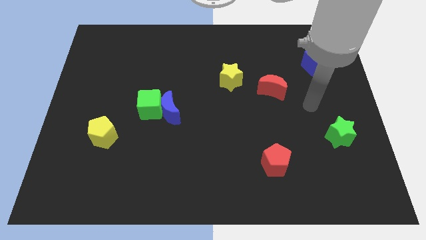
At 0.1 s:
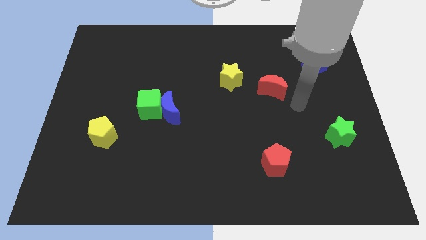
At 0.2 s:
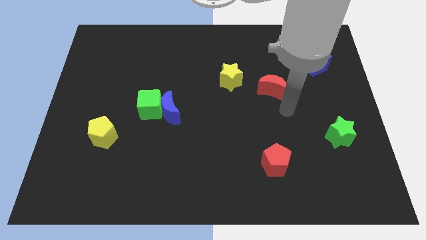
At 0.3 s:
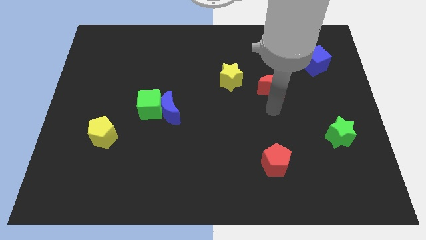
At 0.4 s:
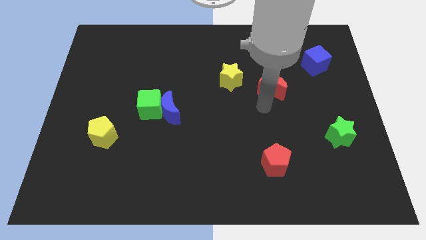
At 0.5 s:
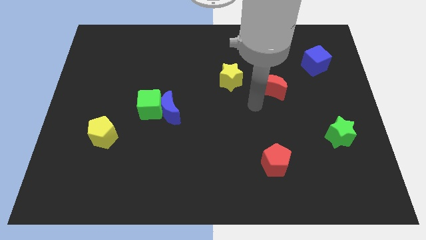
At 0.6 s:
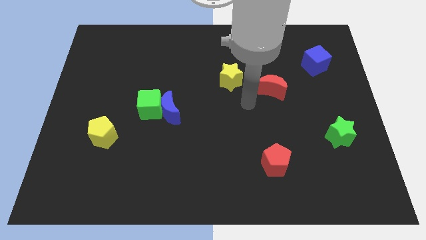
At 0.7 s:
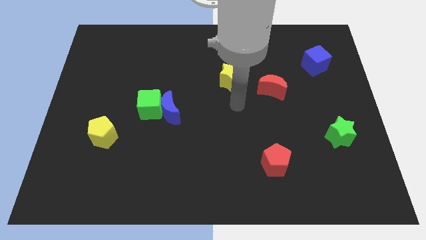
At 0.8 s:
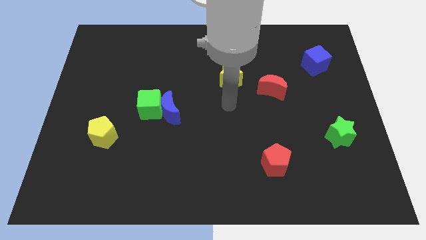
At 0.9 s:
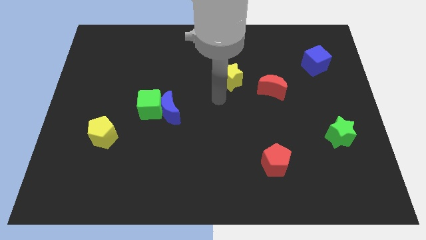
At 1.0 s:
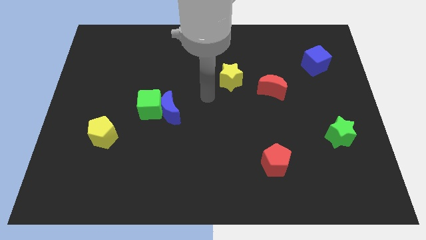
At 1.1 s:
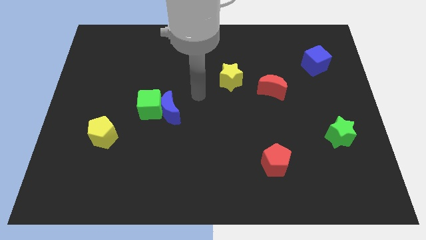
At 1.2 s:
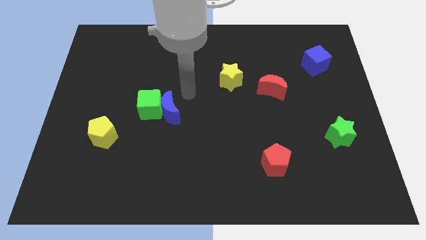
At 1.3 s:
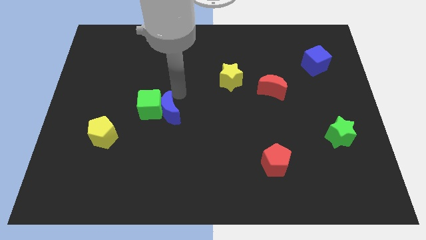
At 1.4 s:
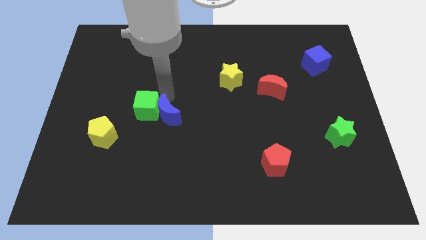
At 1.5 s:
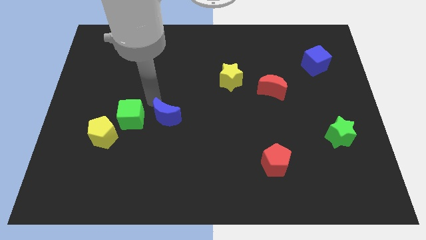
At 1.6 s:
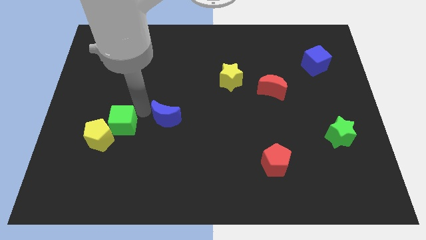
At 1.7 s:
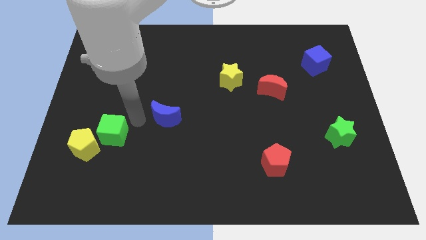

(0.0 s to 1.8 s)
pull the blue moon apart from the green cube

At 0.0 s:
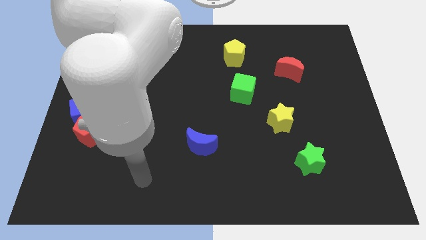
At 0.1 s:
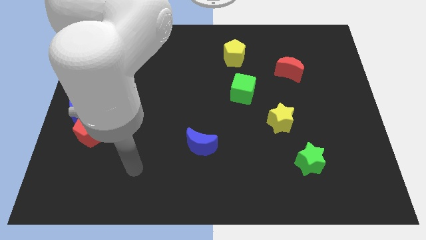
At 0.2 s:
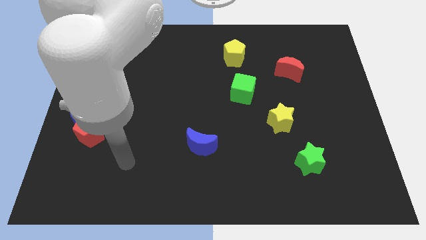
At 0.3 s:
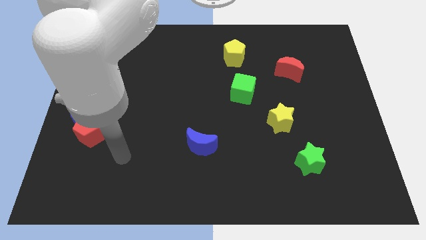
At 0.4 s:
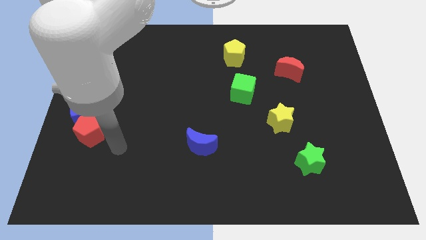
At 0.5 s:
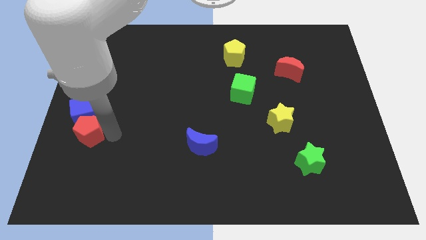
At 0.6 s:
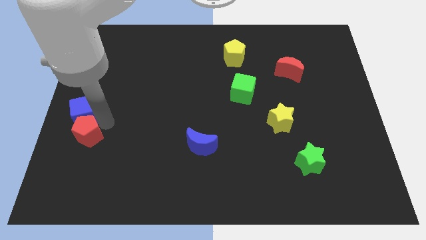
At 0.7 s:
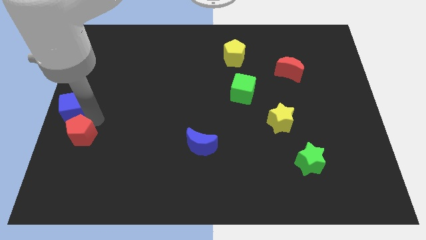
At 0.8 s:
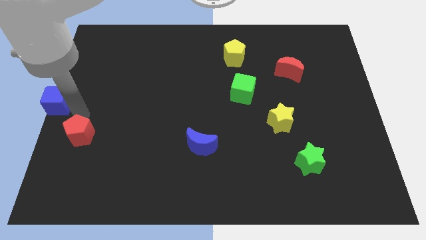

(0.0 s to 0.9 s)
separate the red pentagon from the blue cube

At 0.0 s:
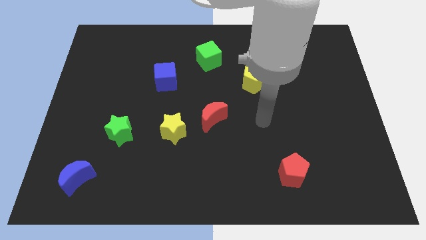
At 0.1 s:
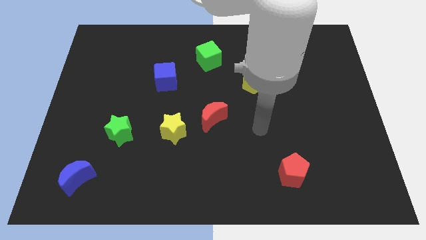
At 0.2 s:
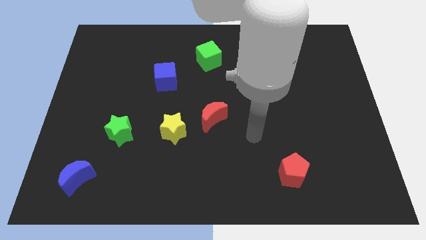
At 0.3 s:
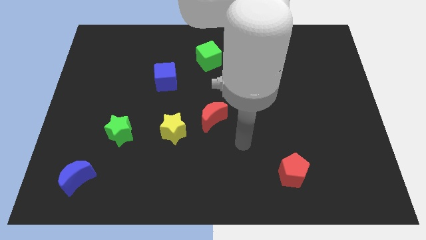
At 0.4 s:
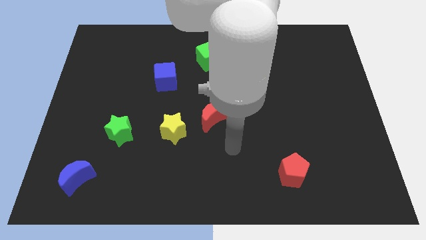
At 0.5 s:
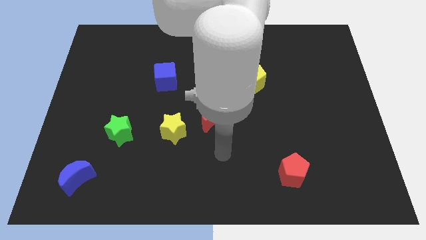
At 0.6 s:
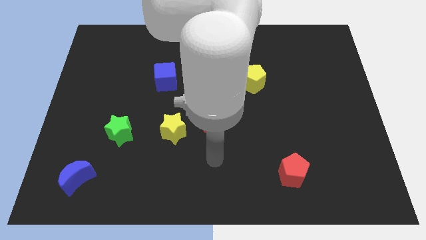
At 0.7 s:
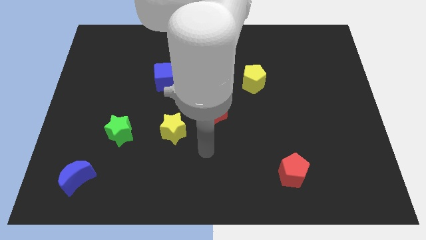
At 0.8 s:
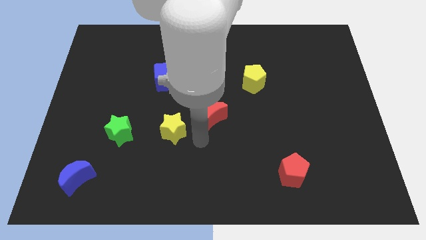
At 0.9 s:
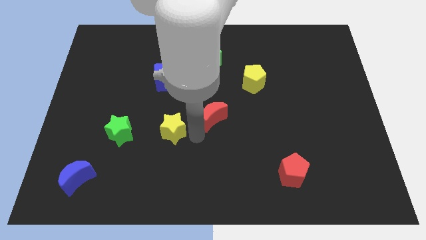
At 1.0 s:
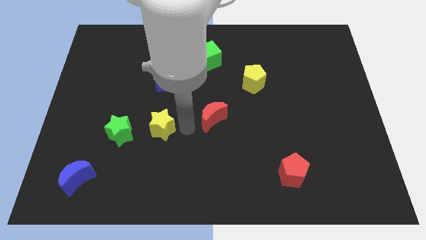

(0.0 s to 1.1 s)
pull the red moon apart from the yellow star

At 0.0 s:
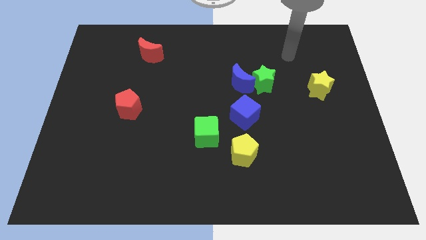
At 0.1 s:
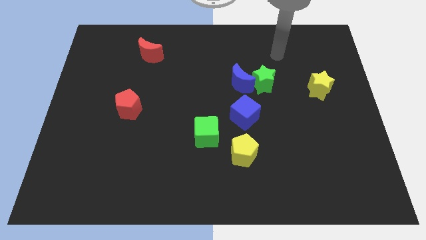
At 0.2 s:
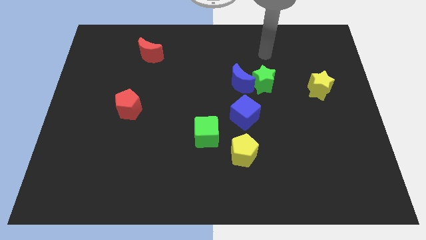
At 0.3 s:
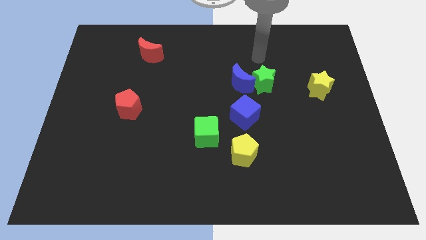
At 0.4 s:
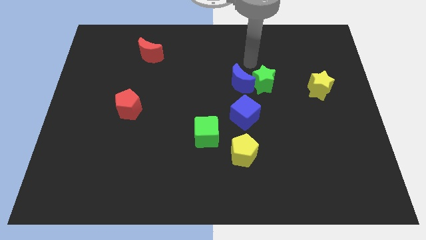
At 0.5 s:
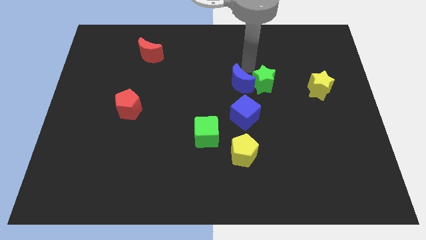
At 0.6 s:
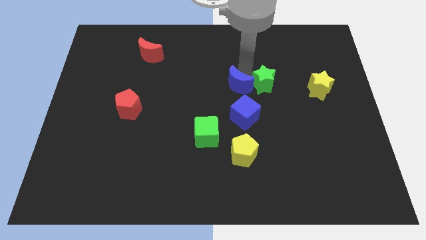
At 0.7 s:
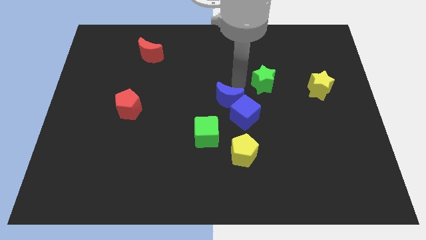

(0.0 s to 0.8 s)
separate the green star from the blue moon

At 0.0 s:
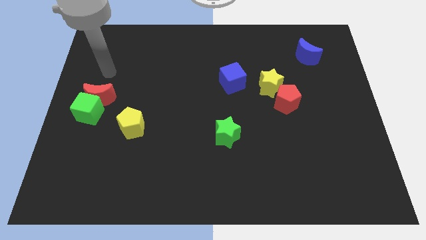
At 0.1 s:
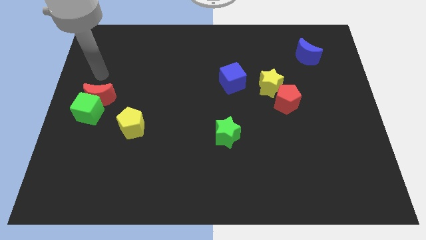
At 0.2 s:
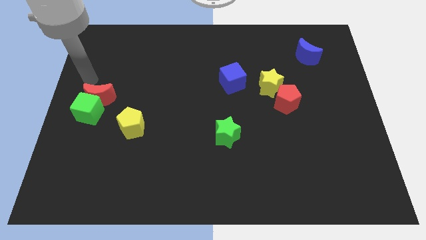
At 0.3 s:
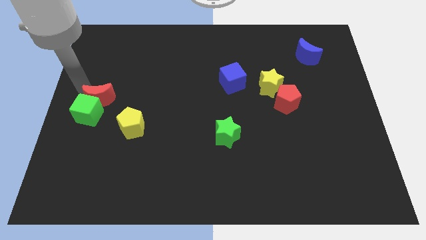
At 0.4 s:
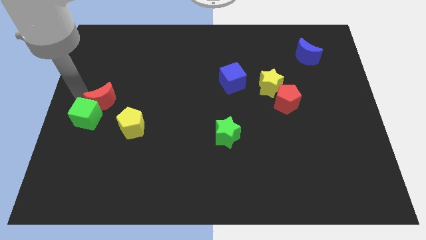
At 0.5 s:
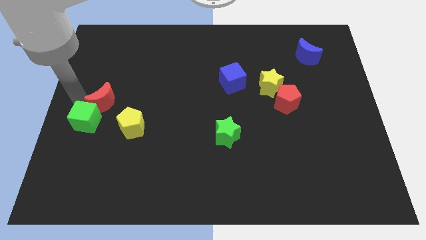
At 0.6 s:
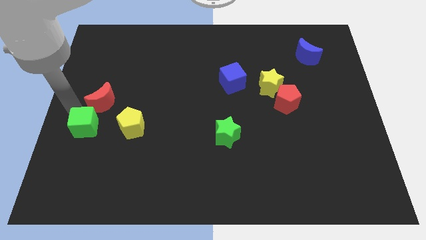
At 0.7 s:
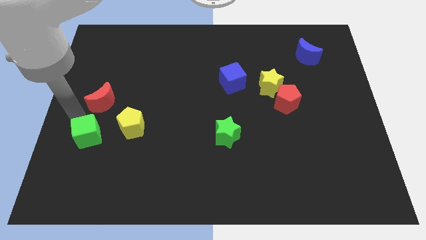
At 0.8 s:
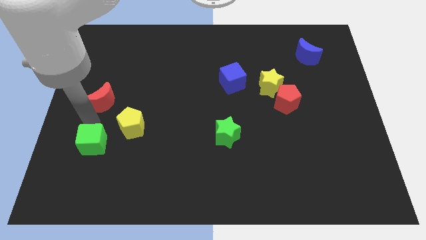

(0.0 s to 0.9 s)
separate the red moon from the green cube

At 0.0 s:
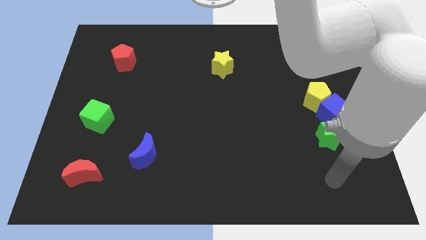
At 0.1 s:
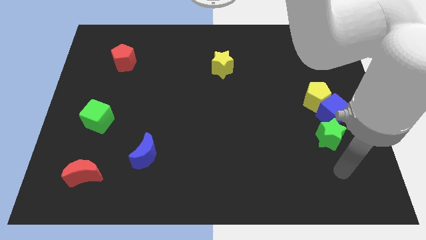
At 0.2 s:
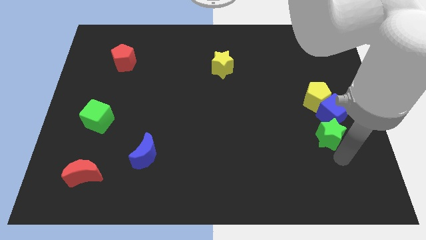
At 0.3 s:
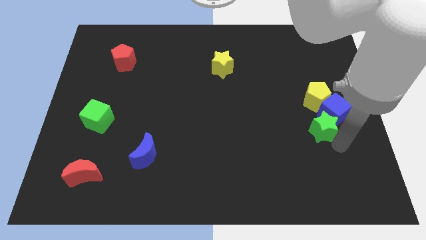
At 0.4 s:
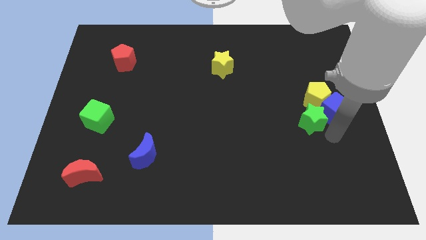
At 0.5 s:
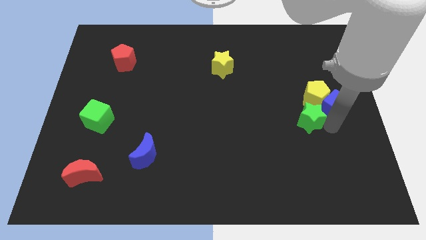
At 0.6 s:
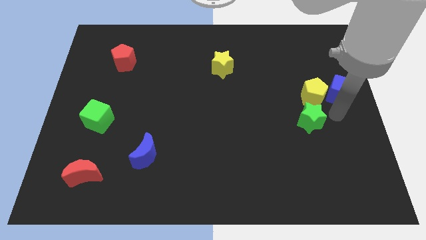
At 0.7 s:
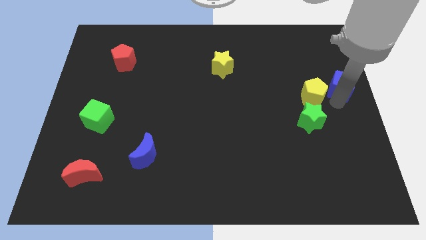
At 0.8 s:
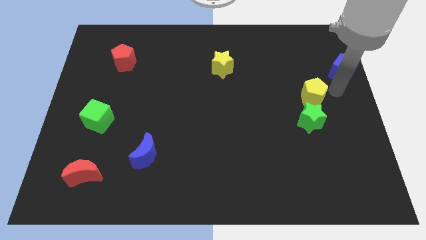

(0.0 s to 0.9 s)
pull the yellow pentagon apart from the blue cube

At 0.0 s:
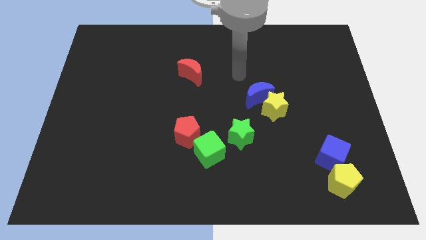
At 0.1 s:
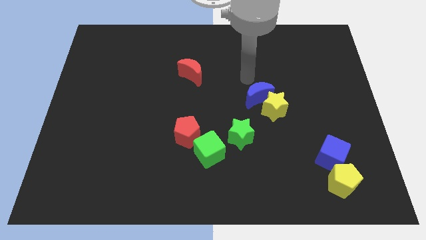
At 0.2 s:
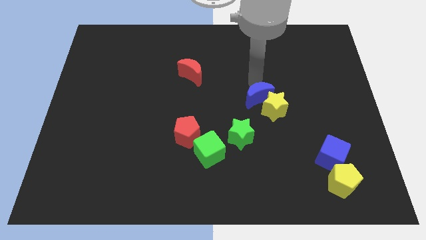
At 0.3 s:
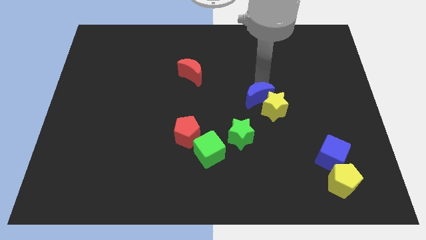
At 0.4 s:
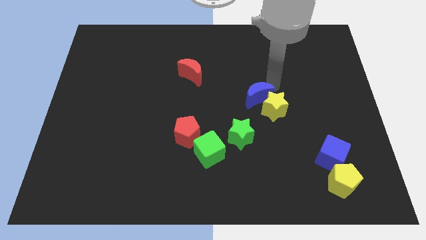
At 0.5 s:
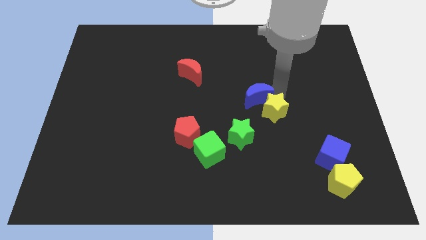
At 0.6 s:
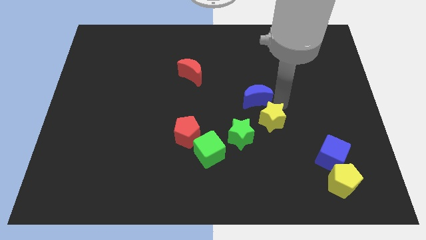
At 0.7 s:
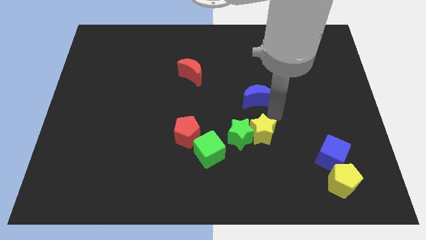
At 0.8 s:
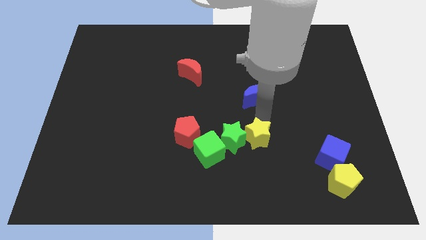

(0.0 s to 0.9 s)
move the blue moon away from the yellow star

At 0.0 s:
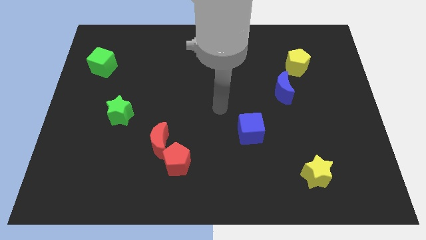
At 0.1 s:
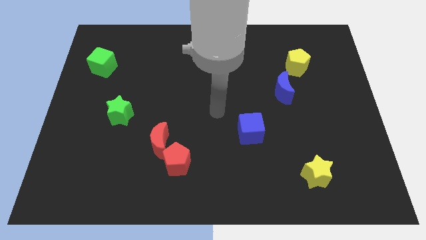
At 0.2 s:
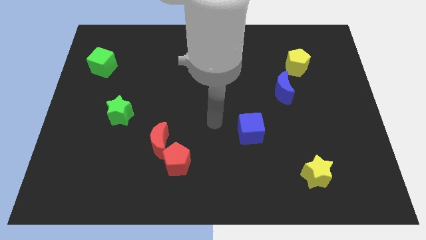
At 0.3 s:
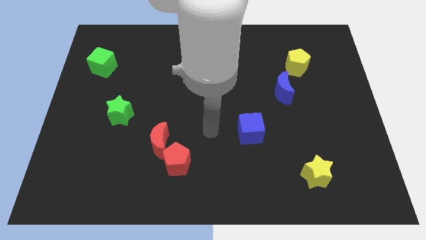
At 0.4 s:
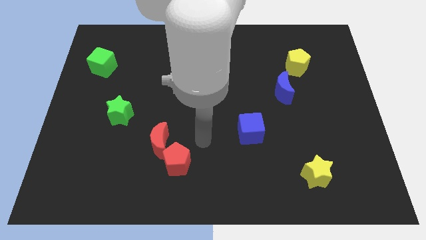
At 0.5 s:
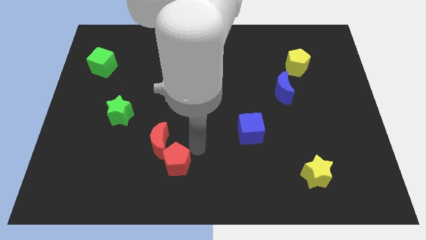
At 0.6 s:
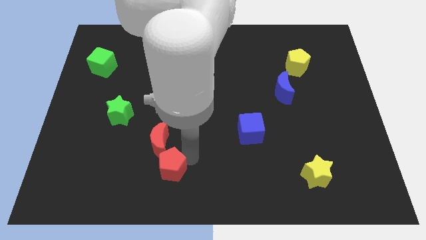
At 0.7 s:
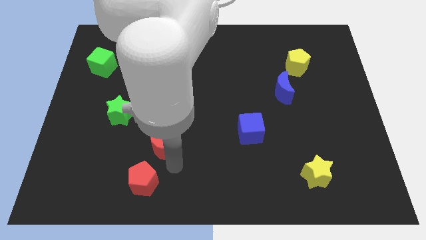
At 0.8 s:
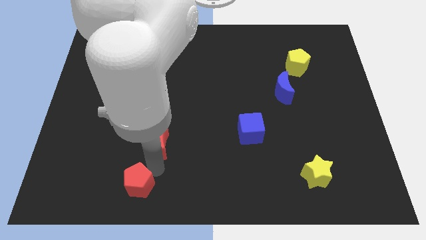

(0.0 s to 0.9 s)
move the red moon away from the red pentagon

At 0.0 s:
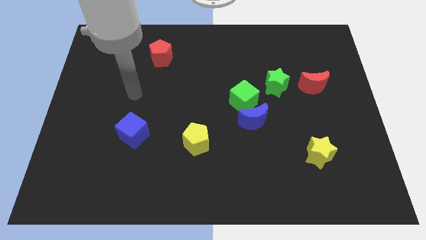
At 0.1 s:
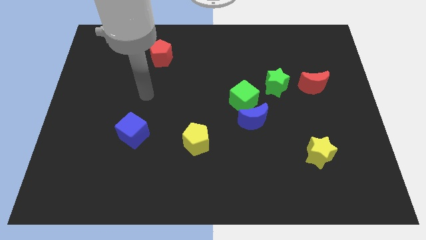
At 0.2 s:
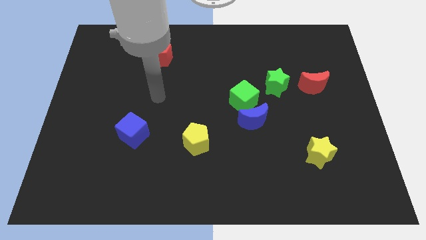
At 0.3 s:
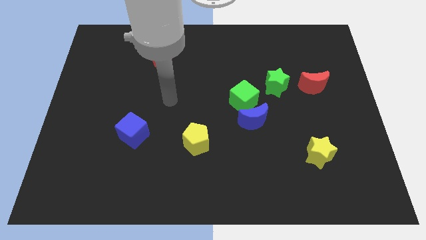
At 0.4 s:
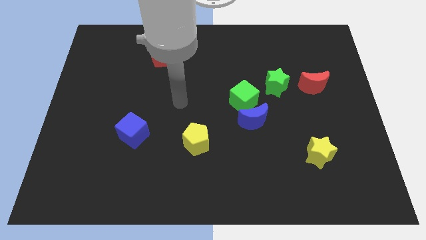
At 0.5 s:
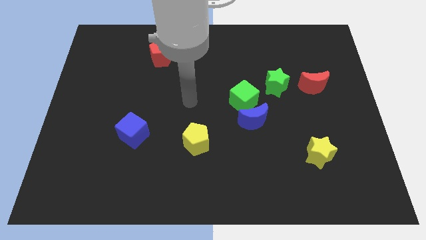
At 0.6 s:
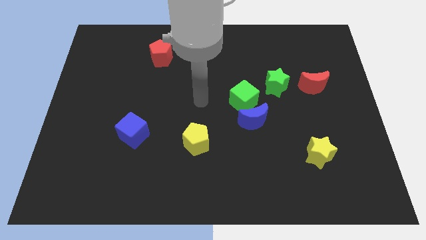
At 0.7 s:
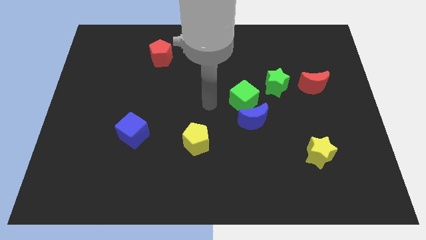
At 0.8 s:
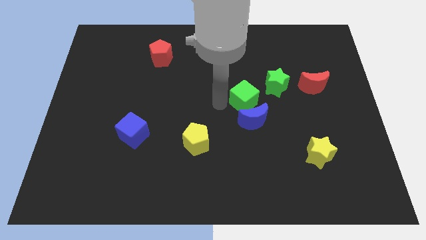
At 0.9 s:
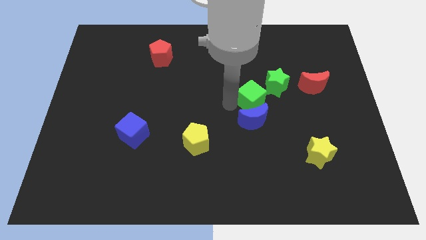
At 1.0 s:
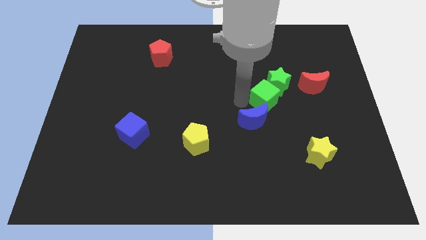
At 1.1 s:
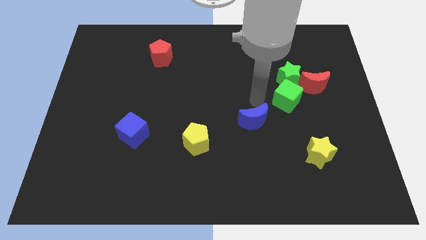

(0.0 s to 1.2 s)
separate the blue moon from the green cube
